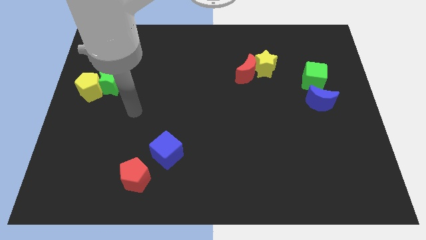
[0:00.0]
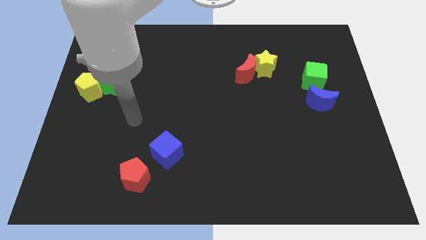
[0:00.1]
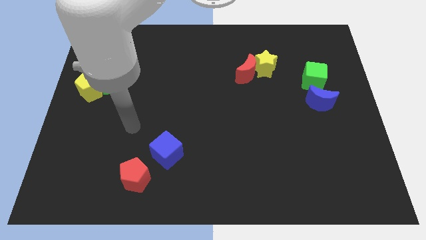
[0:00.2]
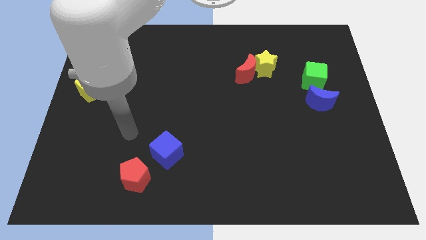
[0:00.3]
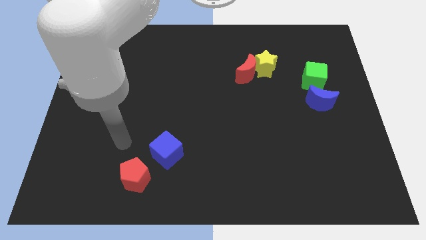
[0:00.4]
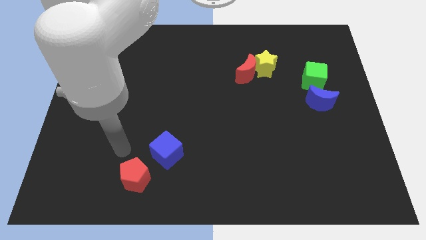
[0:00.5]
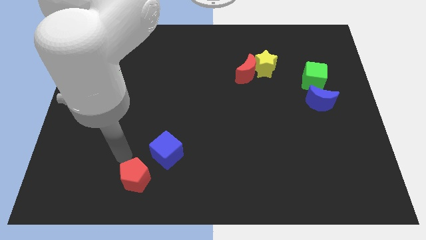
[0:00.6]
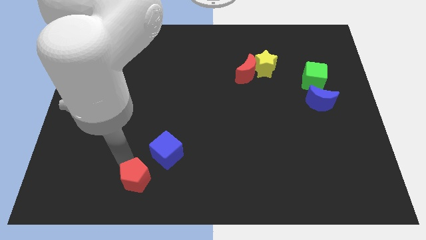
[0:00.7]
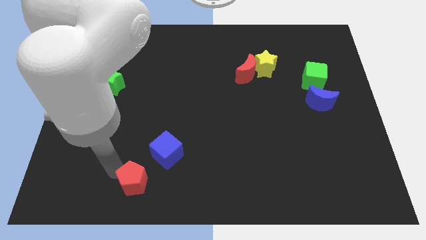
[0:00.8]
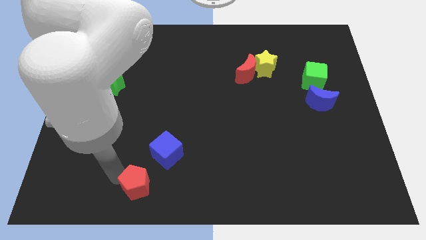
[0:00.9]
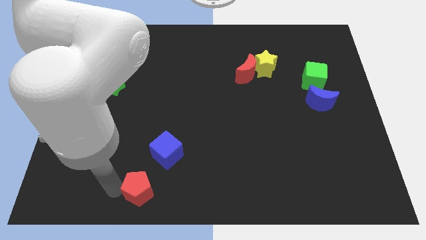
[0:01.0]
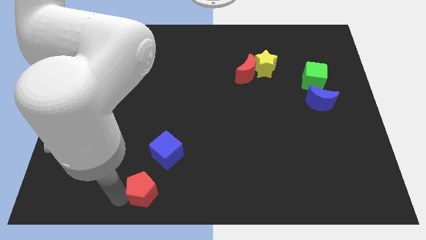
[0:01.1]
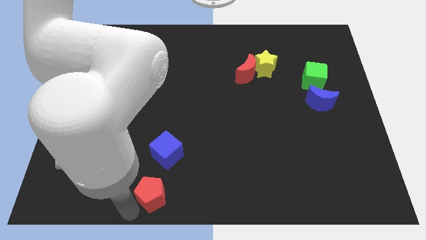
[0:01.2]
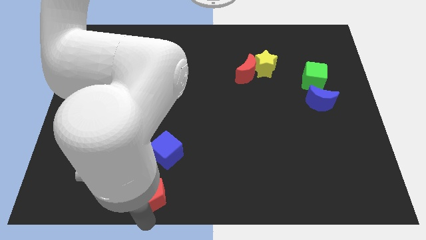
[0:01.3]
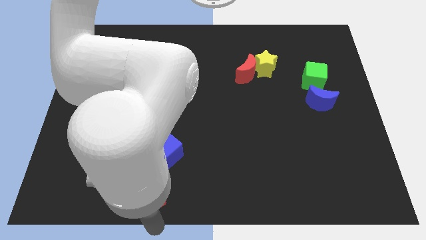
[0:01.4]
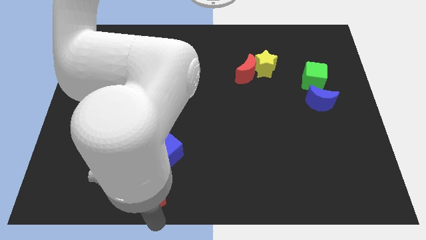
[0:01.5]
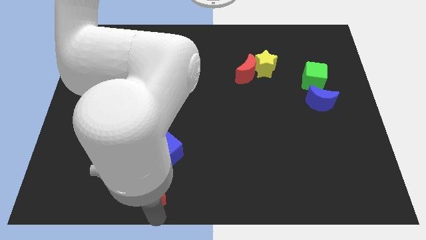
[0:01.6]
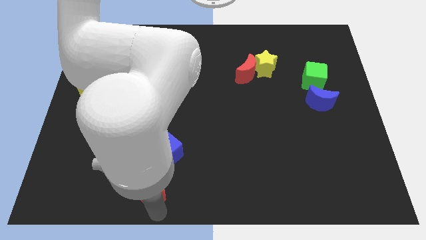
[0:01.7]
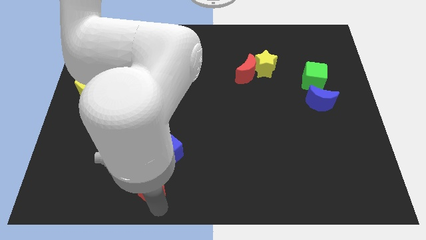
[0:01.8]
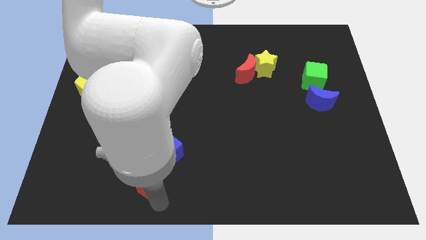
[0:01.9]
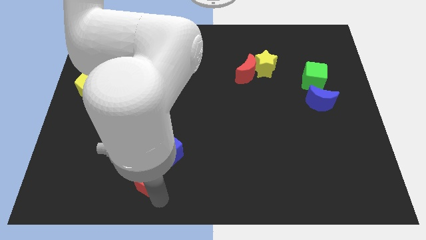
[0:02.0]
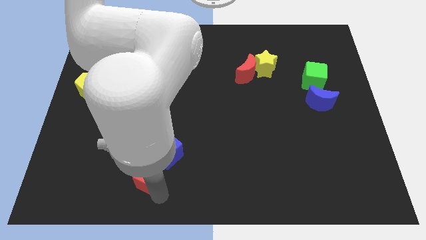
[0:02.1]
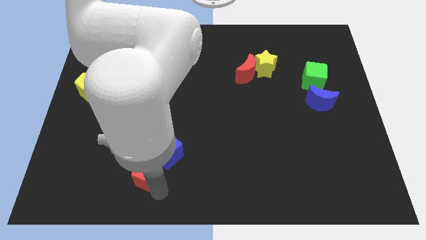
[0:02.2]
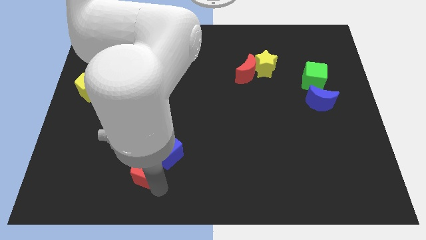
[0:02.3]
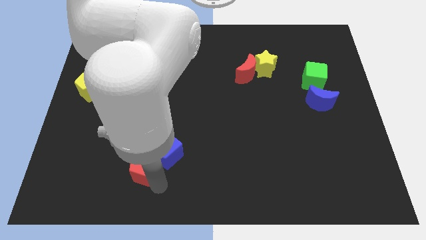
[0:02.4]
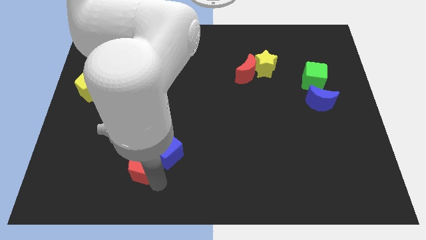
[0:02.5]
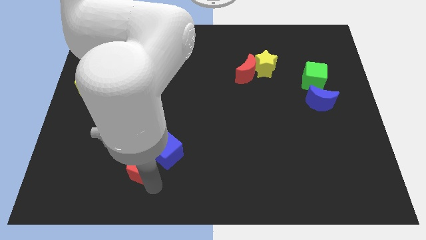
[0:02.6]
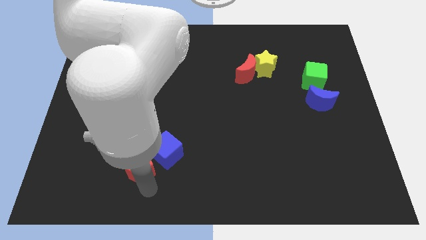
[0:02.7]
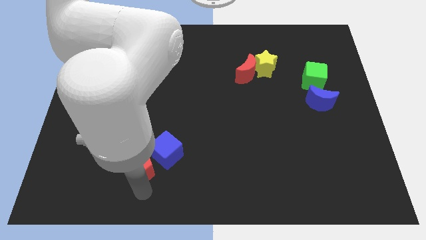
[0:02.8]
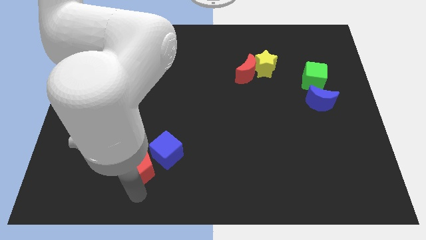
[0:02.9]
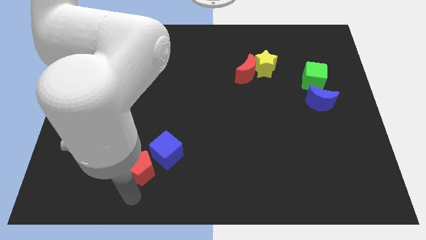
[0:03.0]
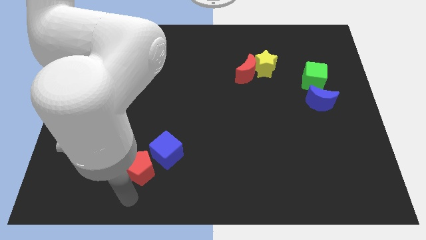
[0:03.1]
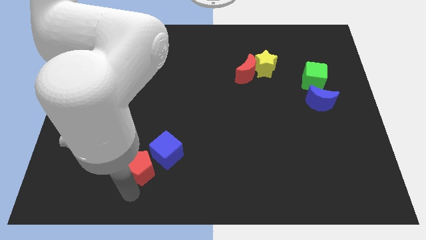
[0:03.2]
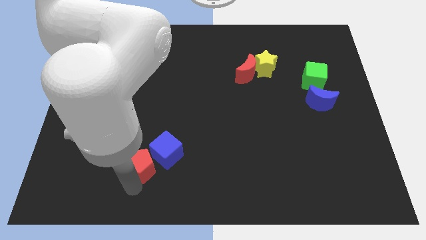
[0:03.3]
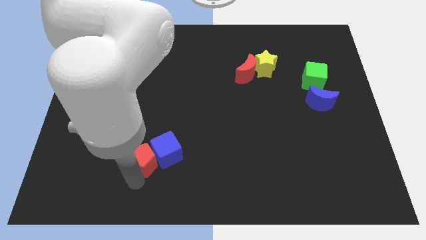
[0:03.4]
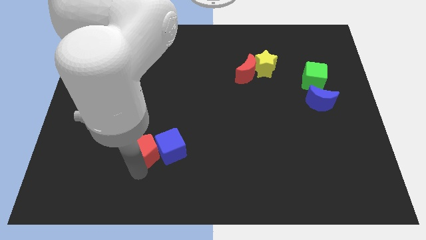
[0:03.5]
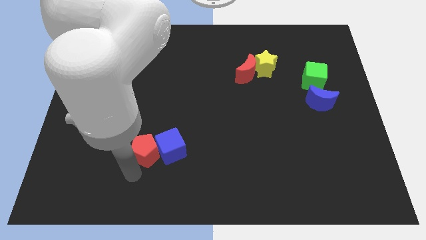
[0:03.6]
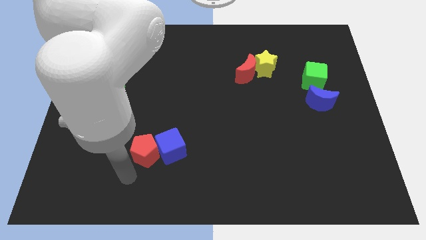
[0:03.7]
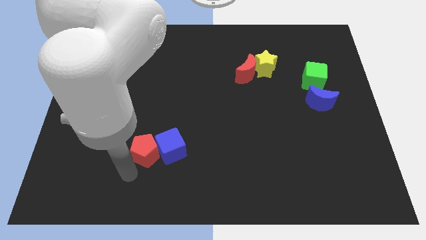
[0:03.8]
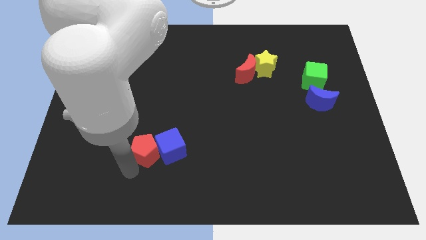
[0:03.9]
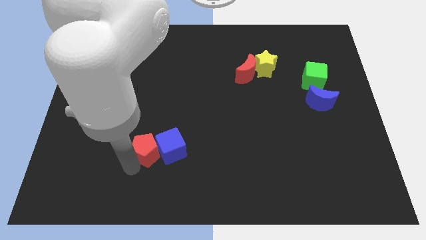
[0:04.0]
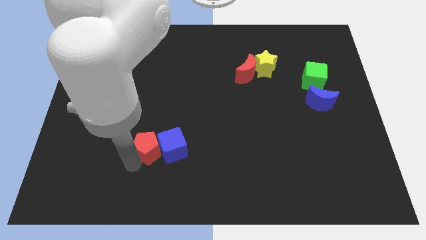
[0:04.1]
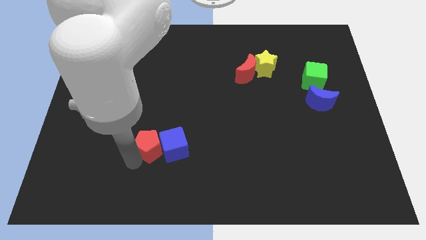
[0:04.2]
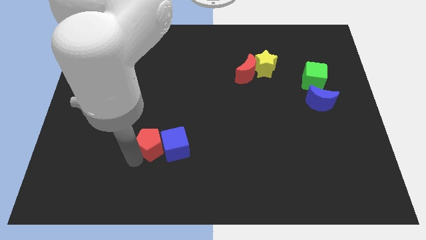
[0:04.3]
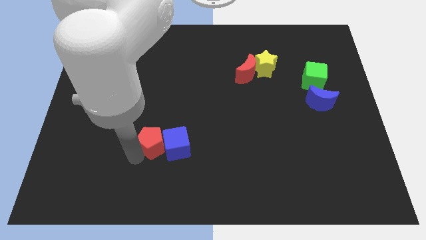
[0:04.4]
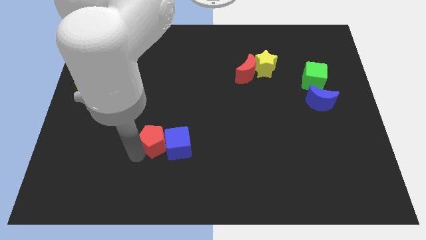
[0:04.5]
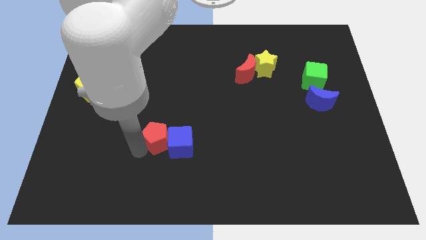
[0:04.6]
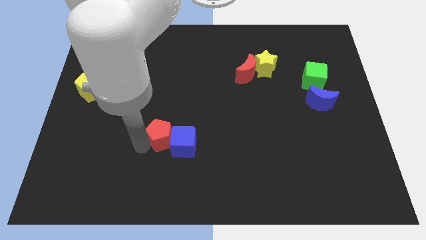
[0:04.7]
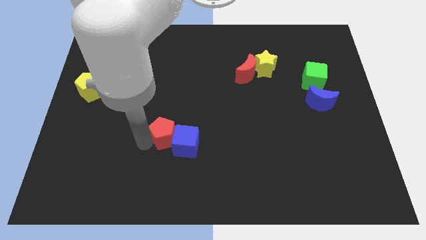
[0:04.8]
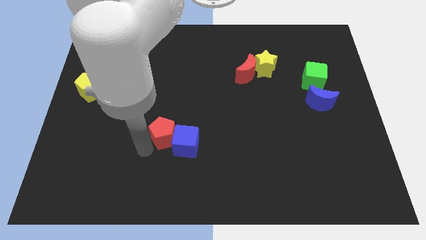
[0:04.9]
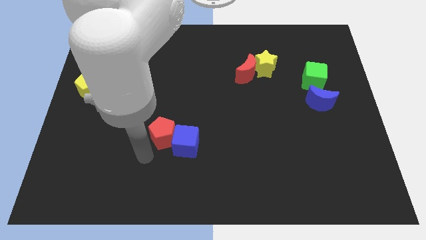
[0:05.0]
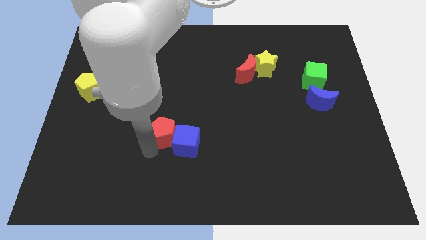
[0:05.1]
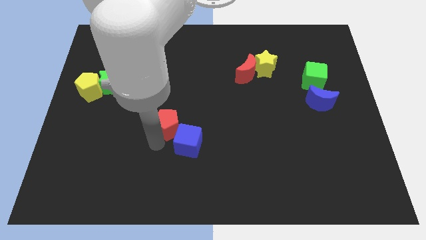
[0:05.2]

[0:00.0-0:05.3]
push the red pentagon to the top side of the blue cube

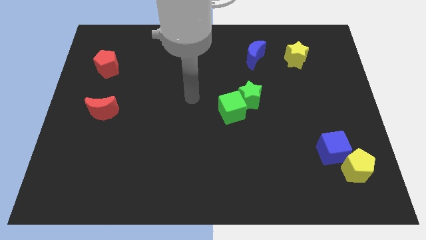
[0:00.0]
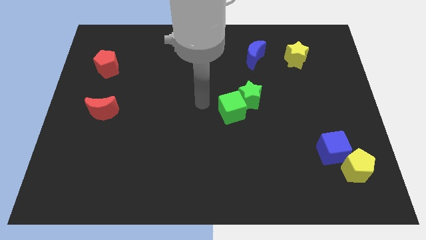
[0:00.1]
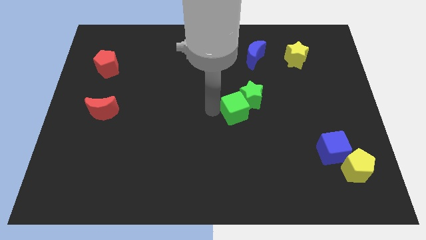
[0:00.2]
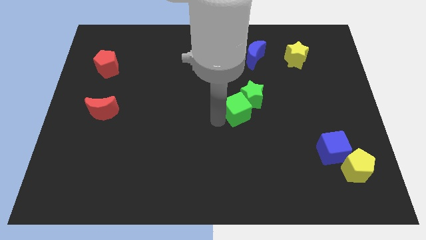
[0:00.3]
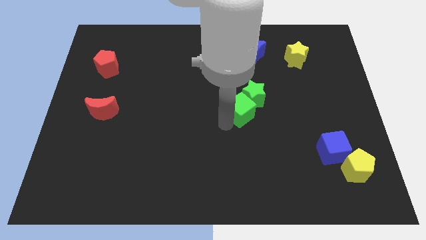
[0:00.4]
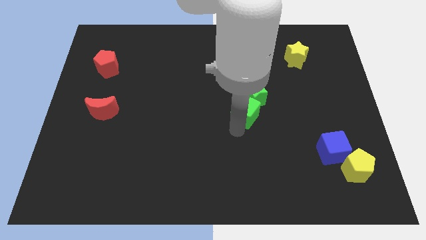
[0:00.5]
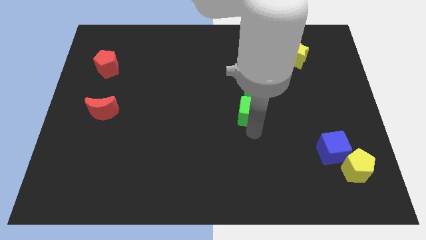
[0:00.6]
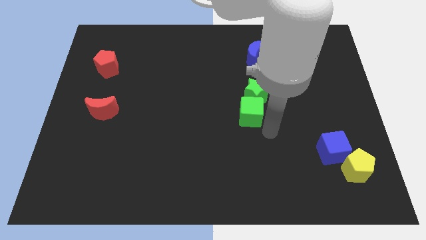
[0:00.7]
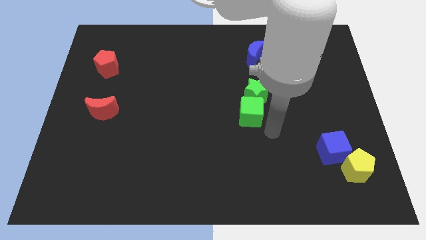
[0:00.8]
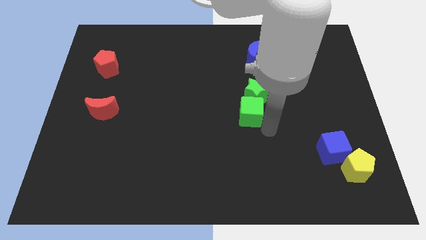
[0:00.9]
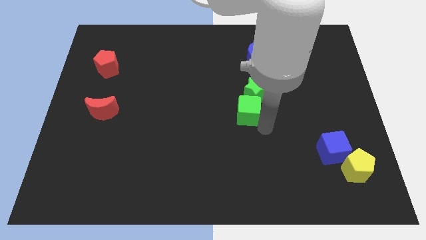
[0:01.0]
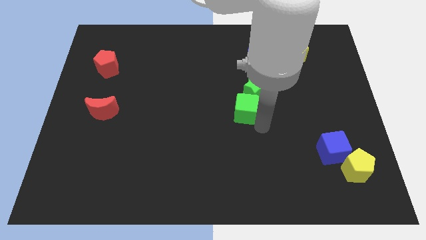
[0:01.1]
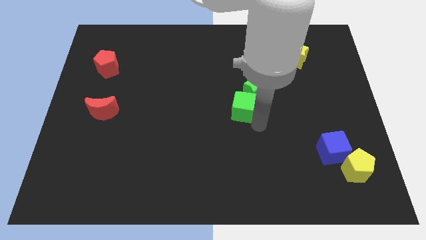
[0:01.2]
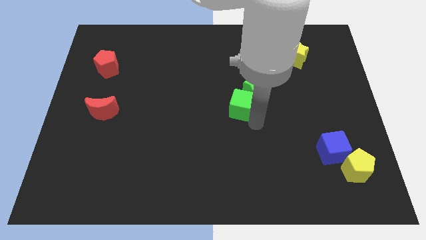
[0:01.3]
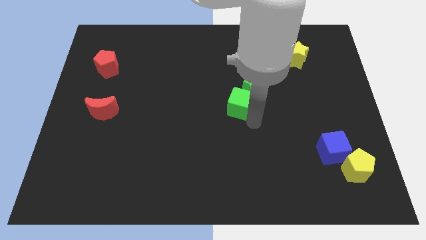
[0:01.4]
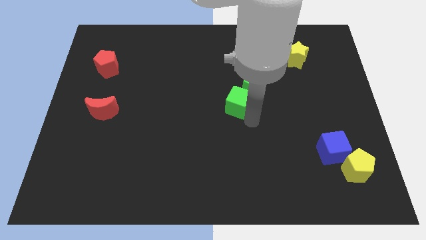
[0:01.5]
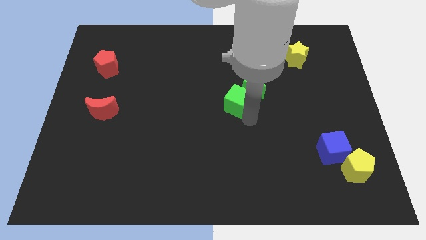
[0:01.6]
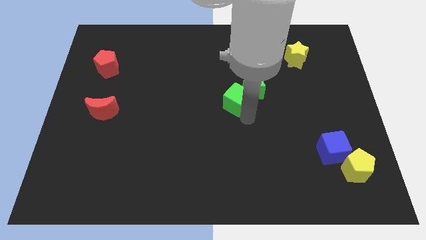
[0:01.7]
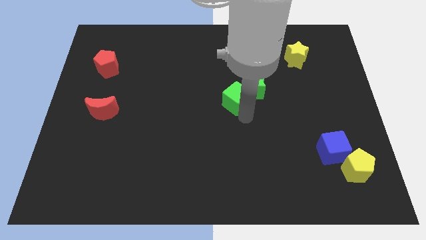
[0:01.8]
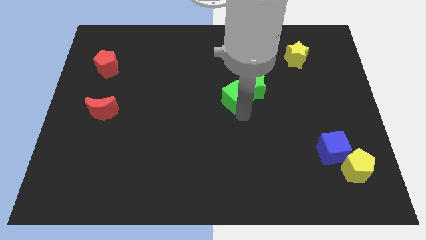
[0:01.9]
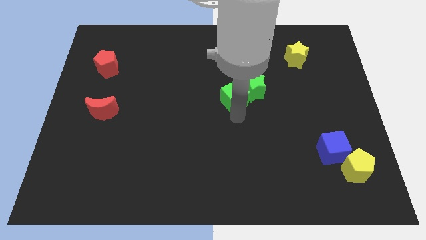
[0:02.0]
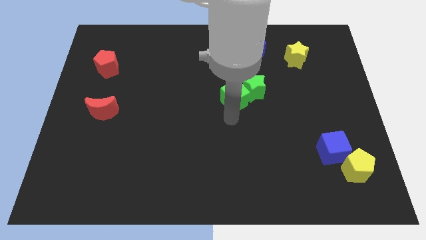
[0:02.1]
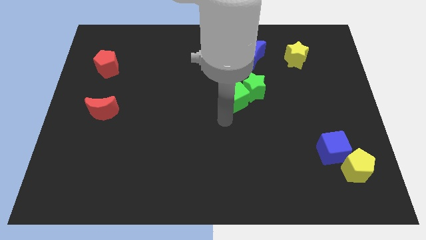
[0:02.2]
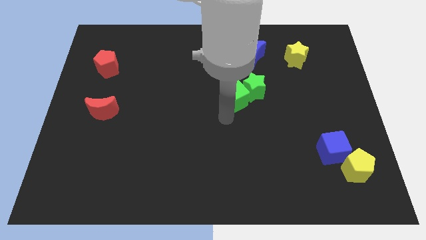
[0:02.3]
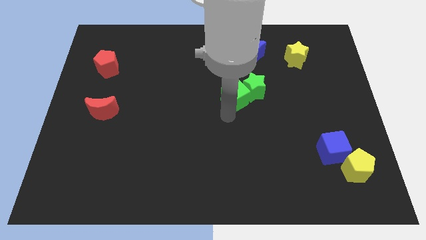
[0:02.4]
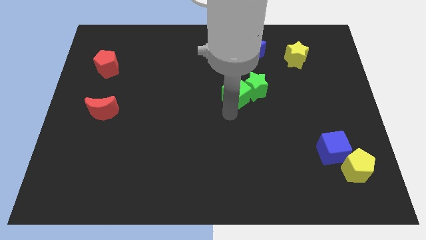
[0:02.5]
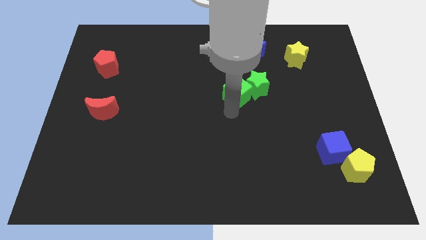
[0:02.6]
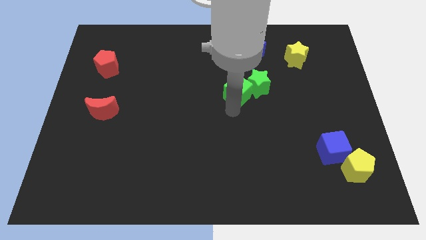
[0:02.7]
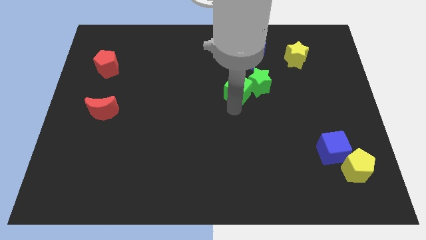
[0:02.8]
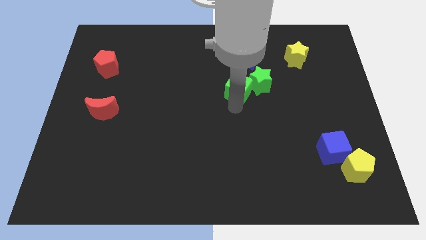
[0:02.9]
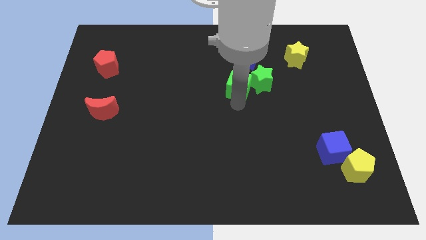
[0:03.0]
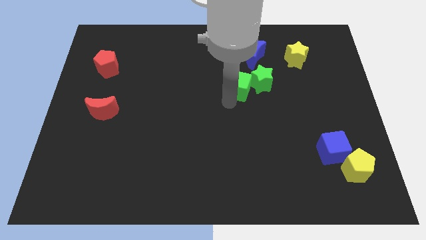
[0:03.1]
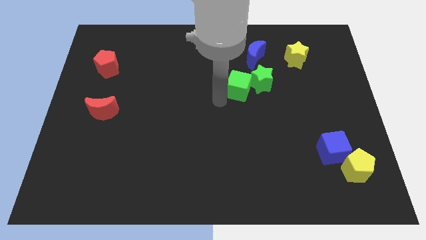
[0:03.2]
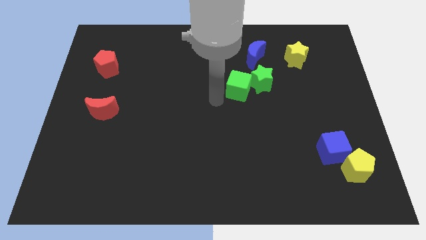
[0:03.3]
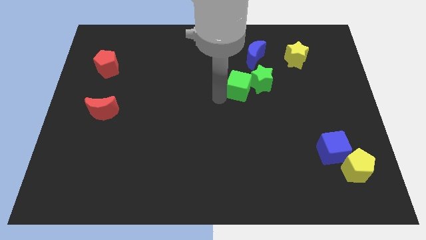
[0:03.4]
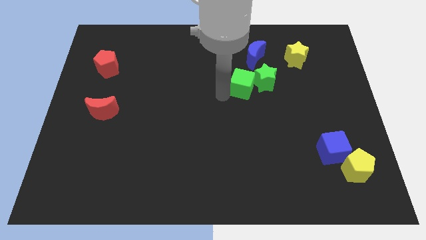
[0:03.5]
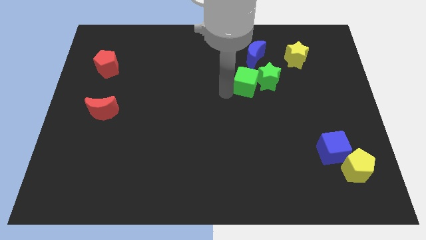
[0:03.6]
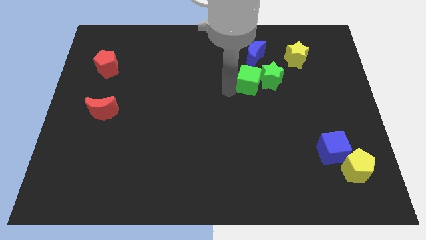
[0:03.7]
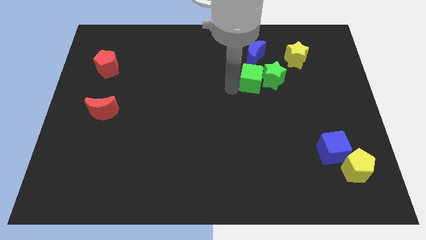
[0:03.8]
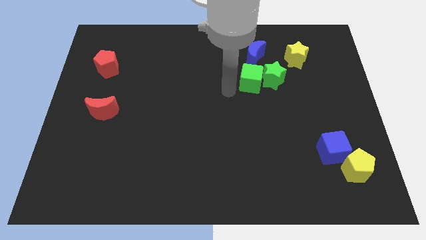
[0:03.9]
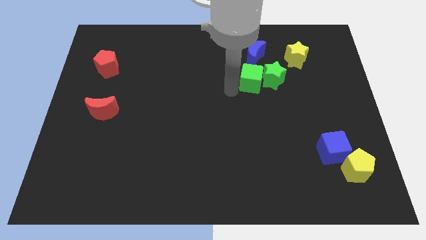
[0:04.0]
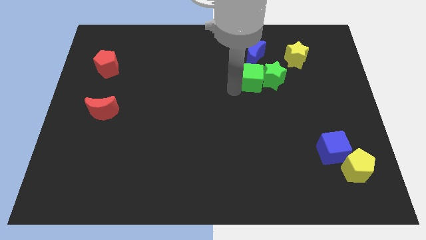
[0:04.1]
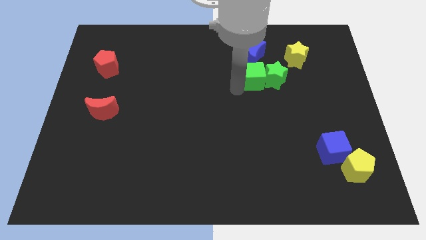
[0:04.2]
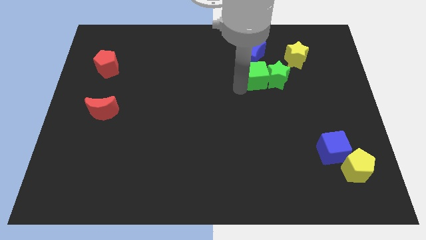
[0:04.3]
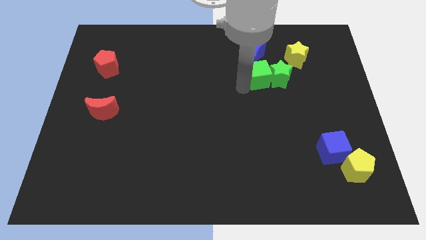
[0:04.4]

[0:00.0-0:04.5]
move the green cube to the bottom right side of the blue moon
